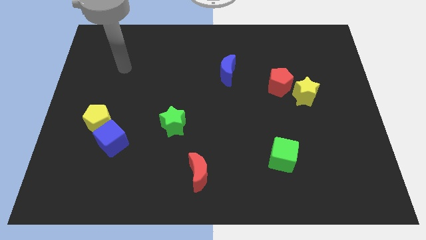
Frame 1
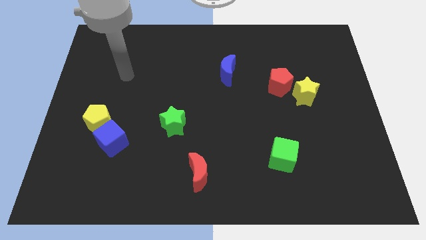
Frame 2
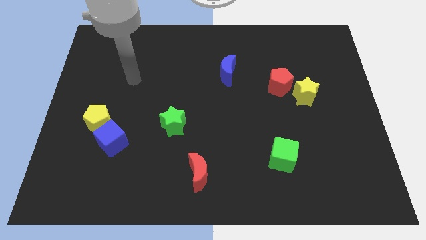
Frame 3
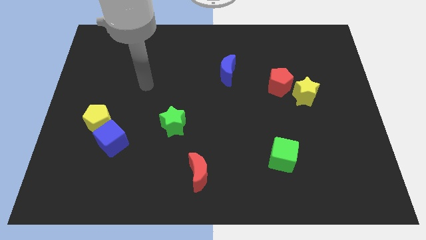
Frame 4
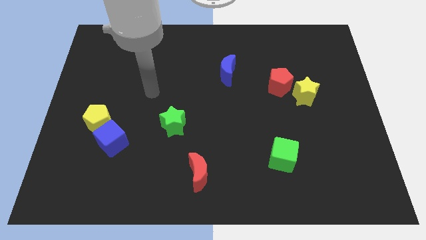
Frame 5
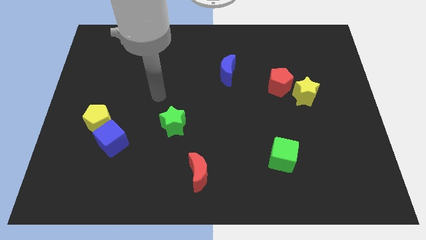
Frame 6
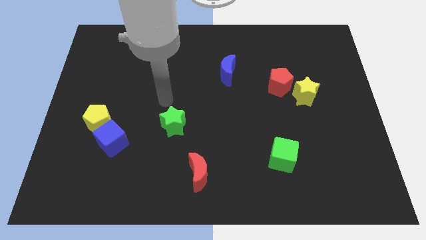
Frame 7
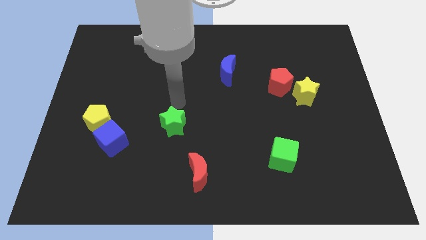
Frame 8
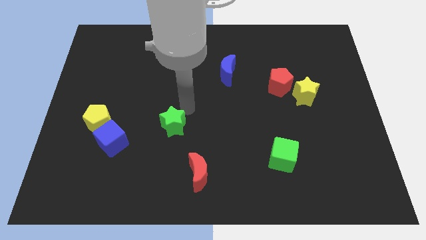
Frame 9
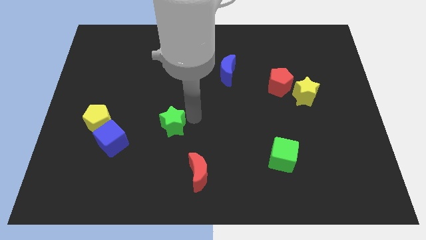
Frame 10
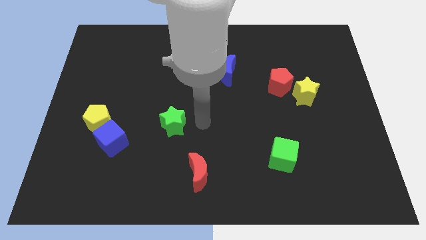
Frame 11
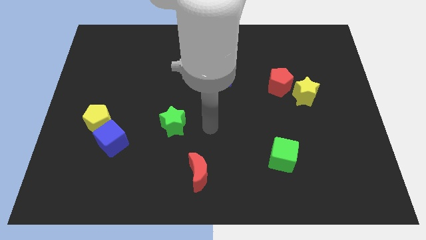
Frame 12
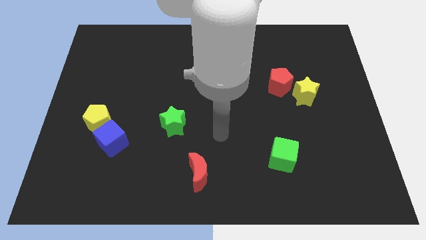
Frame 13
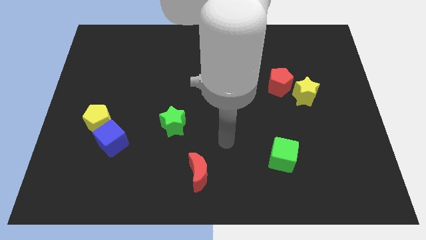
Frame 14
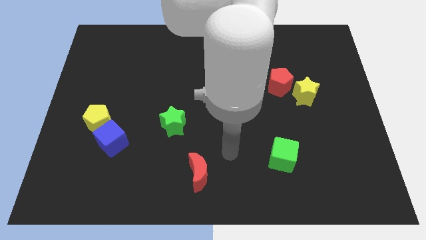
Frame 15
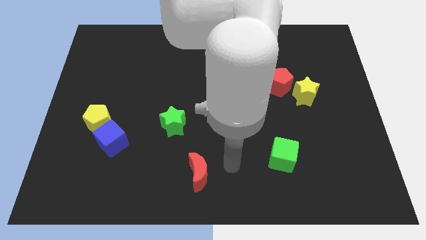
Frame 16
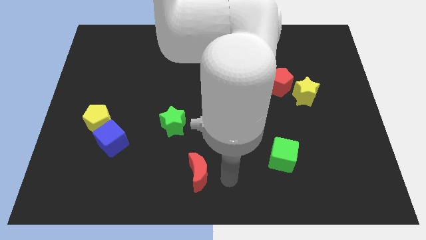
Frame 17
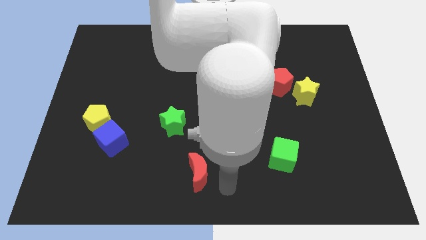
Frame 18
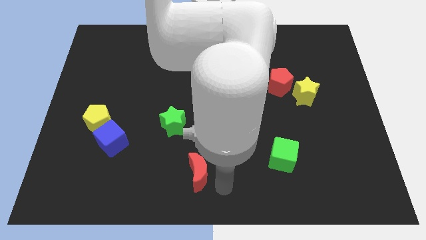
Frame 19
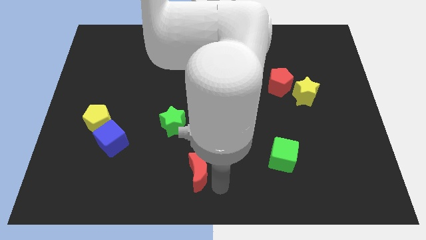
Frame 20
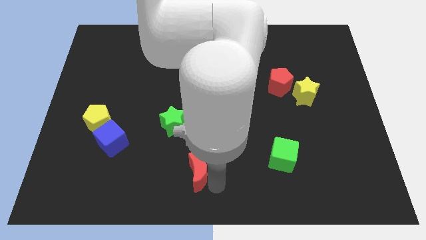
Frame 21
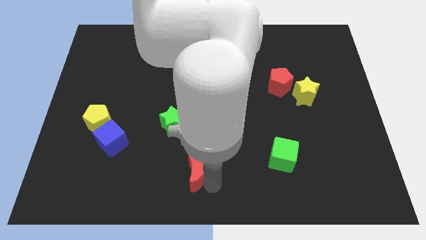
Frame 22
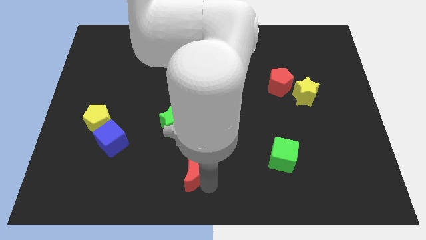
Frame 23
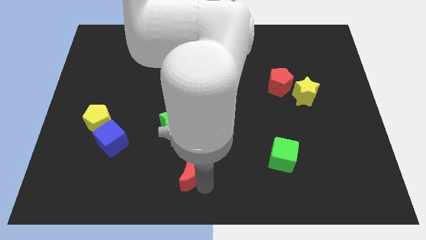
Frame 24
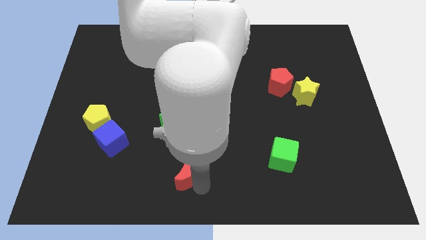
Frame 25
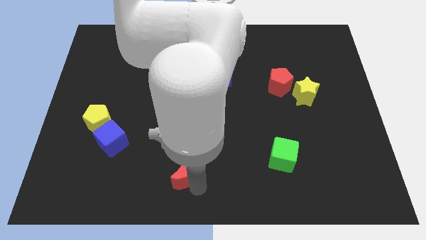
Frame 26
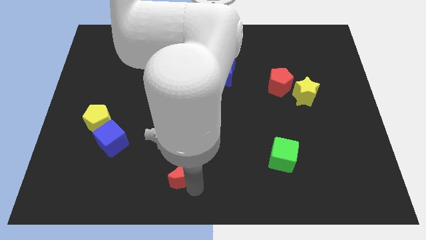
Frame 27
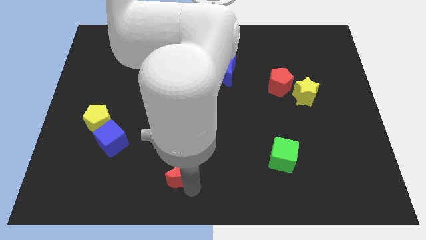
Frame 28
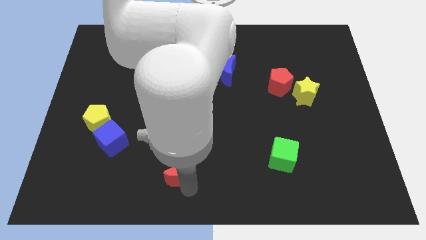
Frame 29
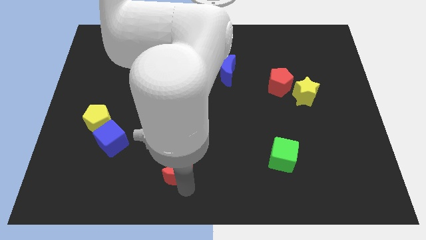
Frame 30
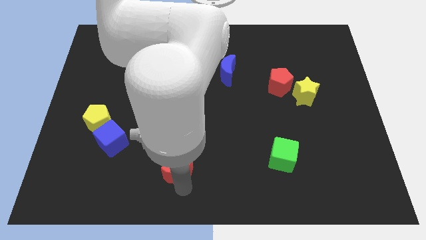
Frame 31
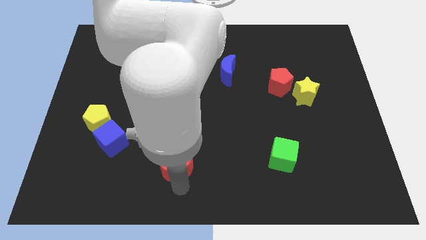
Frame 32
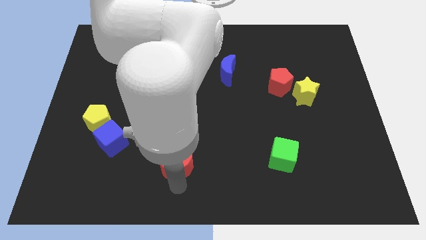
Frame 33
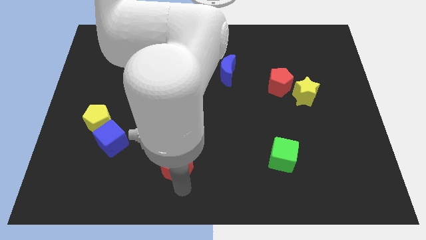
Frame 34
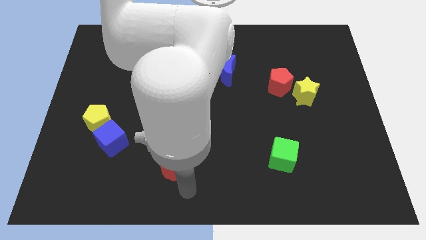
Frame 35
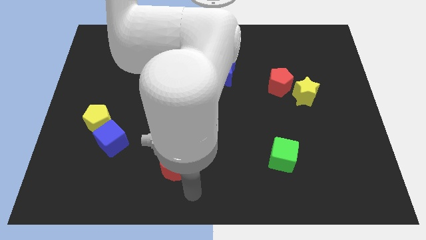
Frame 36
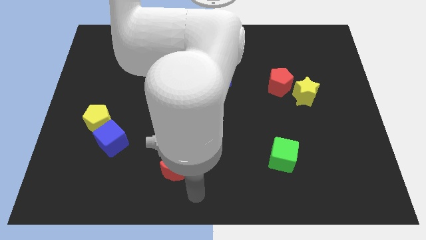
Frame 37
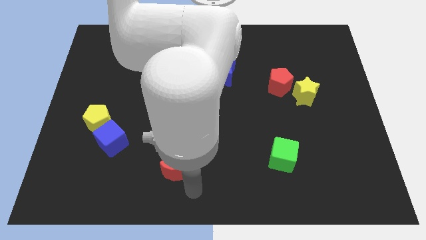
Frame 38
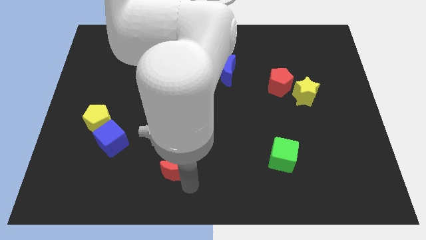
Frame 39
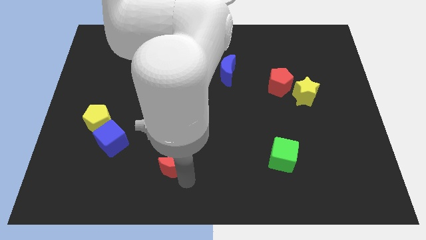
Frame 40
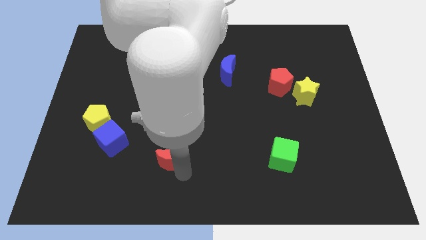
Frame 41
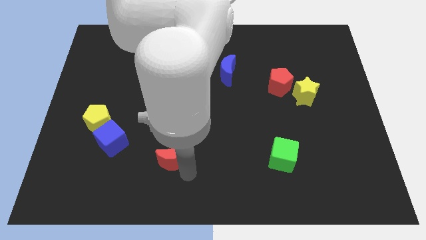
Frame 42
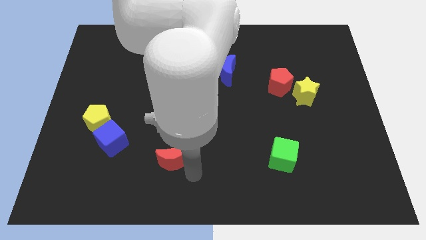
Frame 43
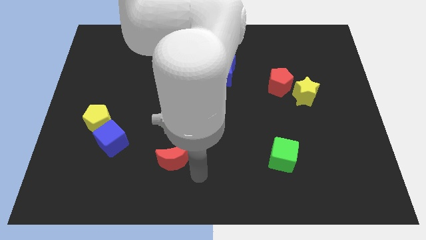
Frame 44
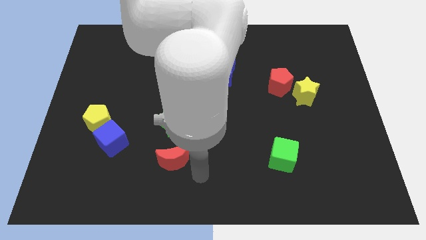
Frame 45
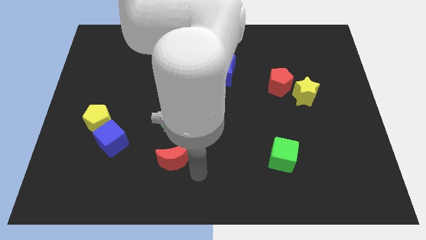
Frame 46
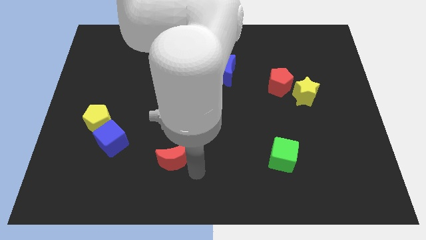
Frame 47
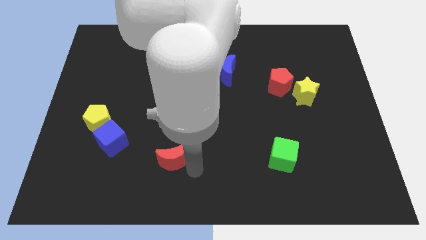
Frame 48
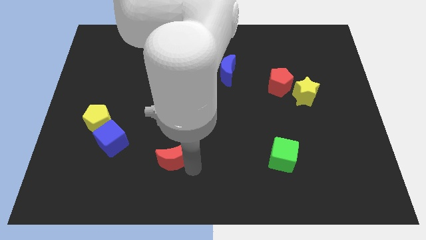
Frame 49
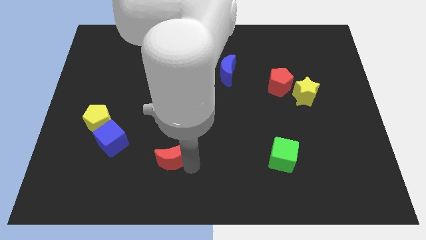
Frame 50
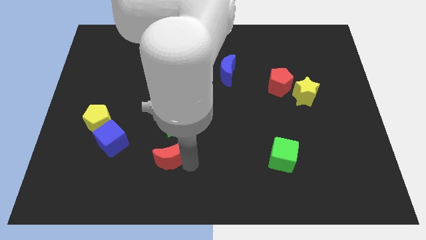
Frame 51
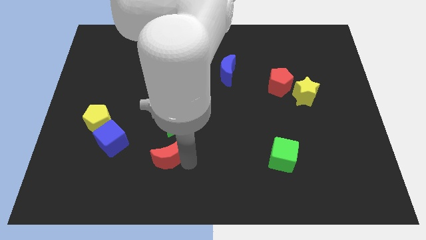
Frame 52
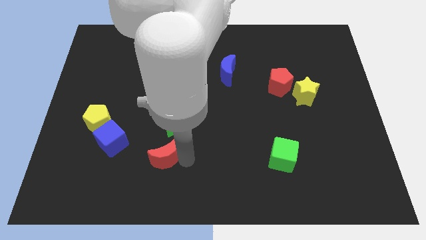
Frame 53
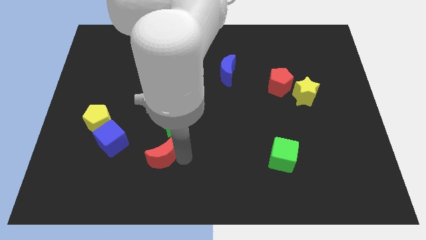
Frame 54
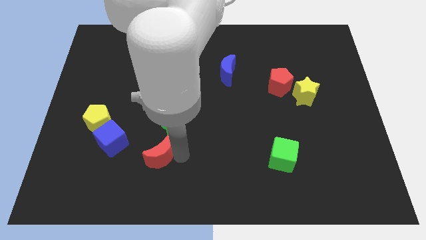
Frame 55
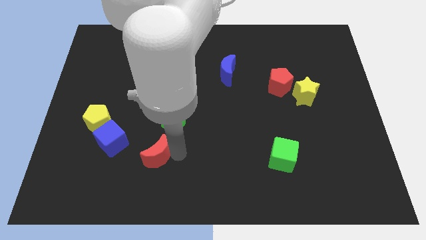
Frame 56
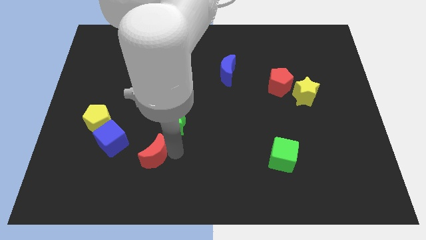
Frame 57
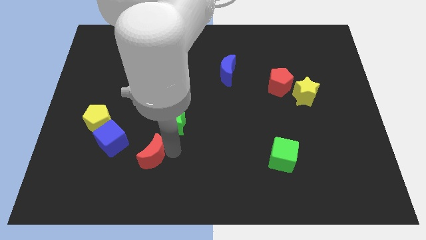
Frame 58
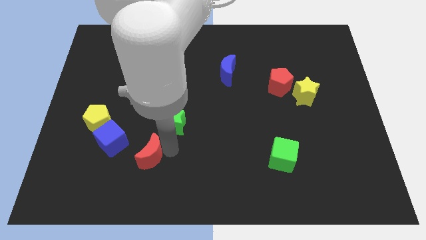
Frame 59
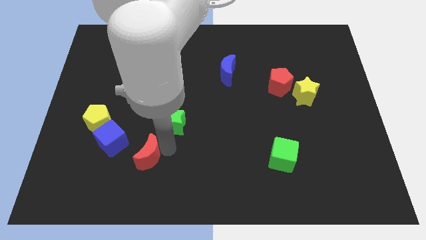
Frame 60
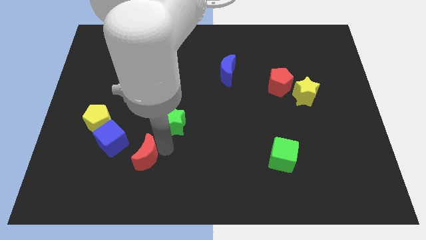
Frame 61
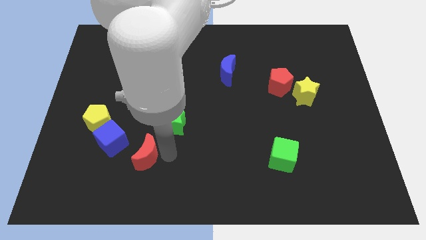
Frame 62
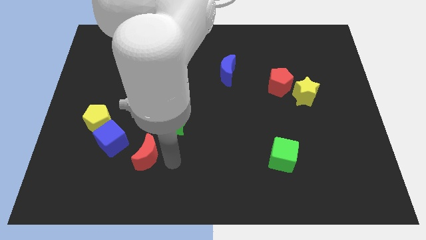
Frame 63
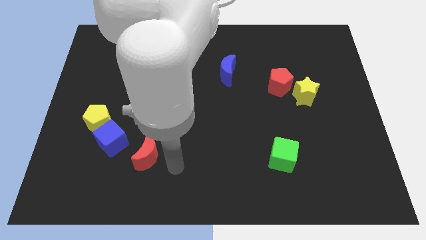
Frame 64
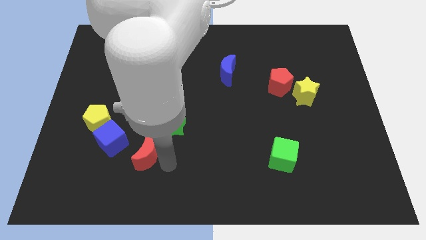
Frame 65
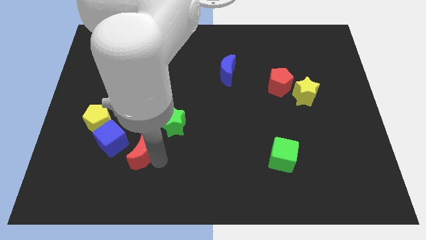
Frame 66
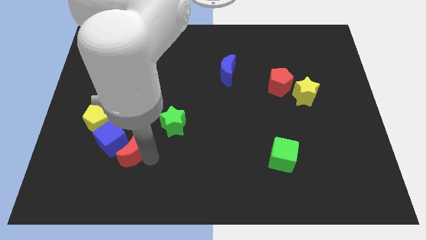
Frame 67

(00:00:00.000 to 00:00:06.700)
push the red moon towards the blue cube

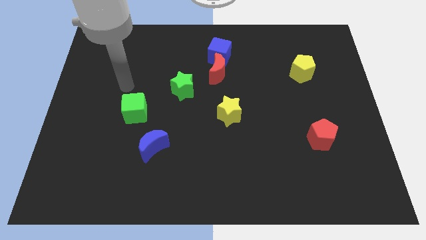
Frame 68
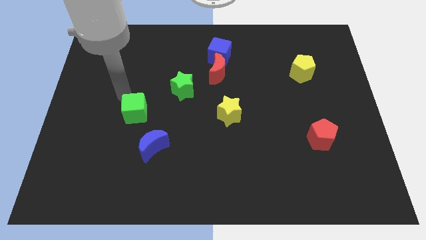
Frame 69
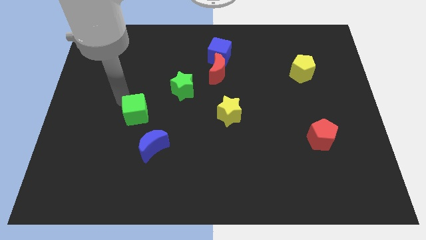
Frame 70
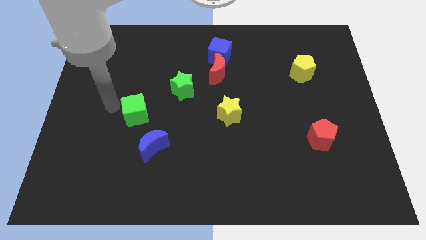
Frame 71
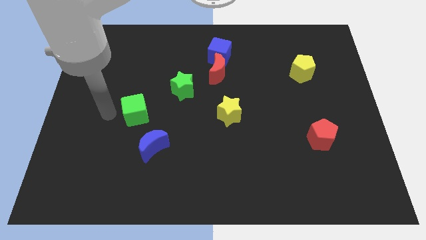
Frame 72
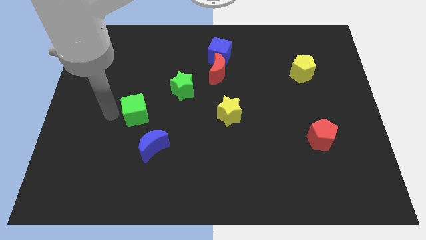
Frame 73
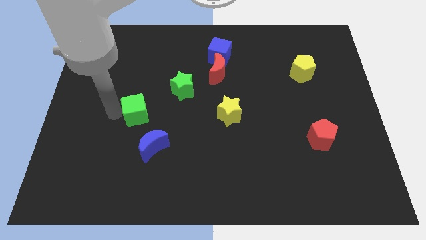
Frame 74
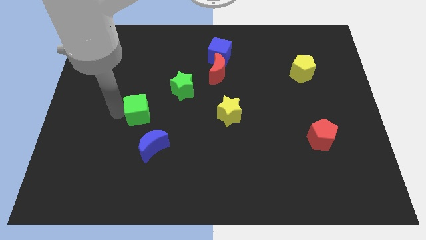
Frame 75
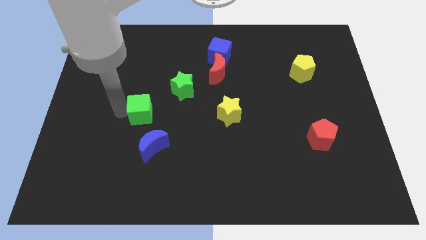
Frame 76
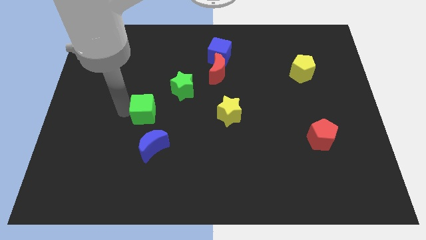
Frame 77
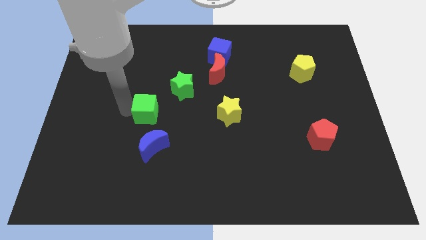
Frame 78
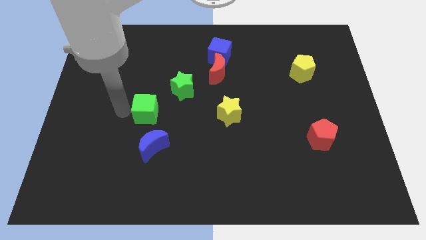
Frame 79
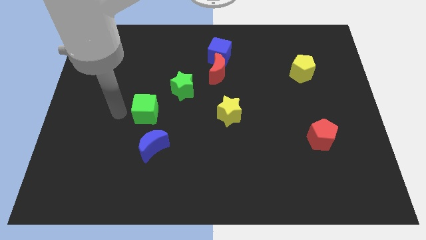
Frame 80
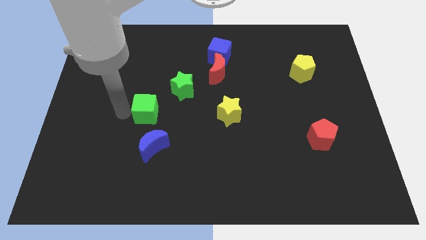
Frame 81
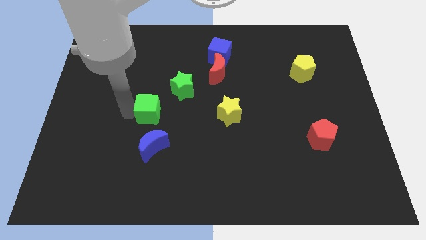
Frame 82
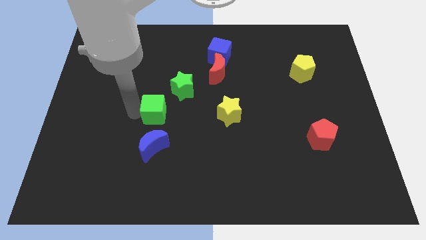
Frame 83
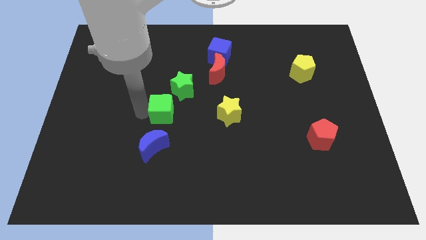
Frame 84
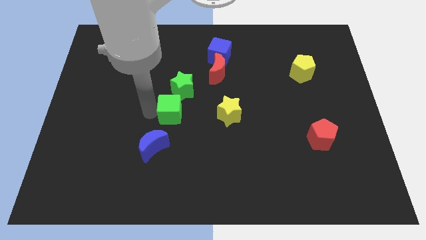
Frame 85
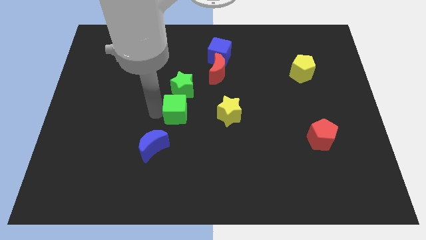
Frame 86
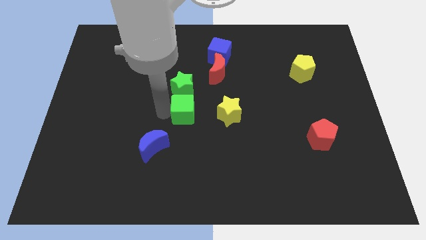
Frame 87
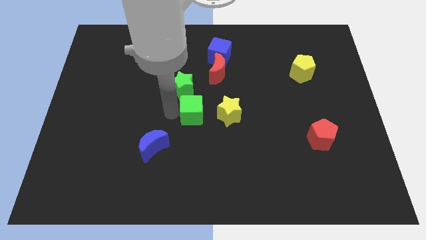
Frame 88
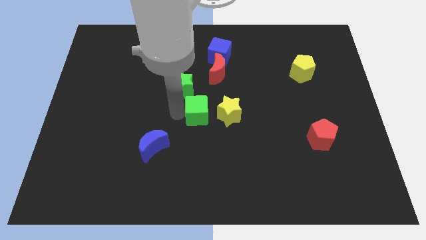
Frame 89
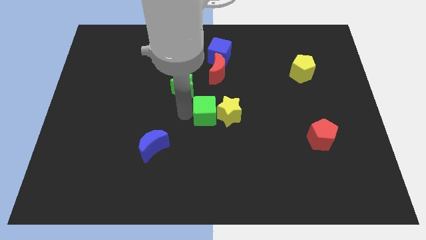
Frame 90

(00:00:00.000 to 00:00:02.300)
move the green cube to the yellow star
